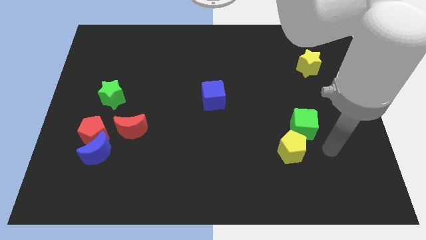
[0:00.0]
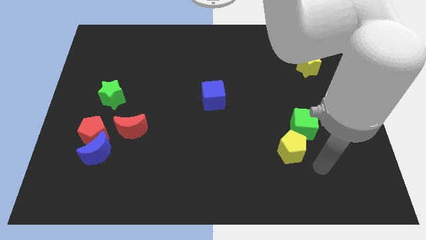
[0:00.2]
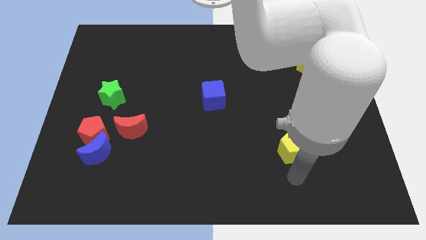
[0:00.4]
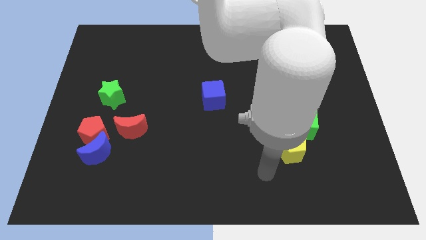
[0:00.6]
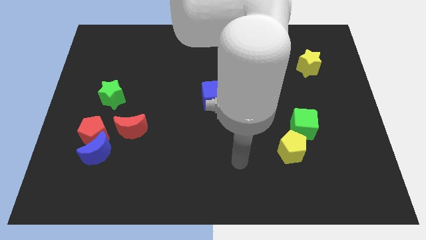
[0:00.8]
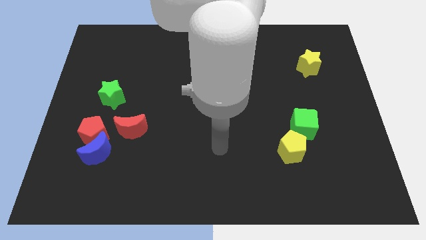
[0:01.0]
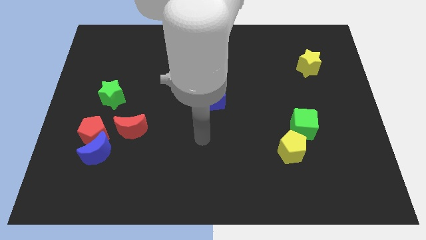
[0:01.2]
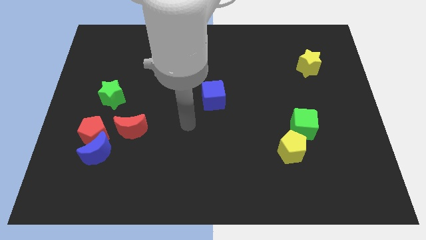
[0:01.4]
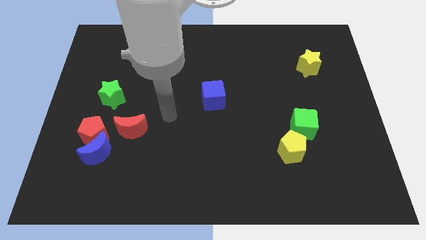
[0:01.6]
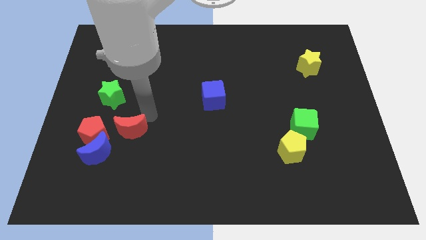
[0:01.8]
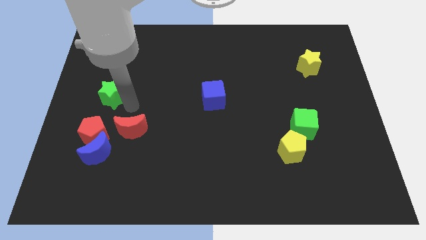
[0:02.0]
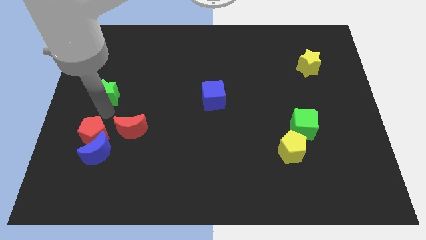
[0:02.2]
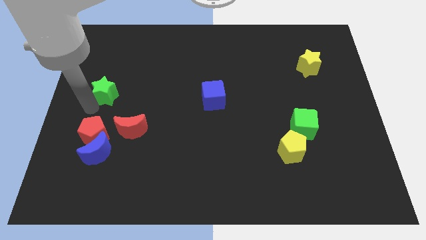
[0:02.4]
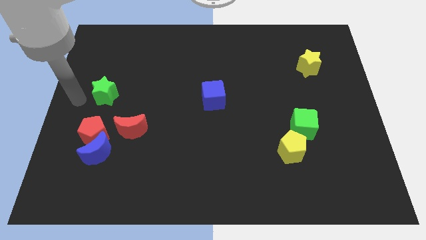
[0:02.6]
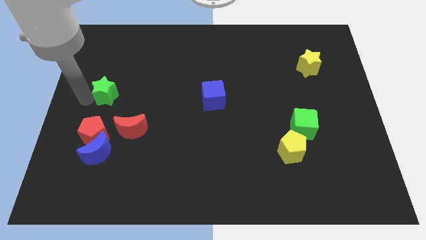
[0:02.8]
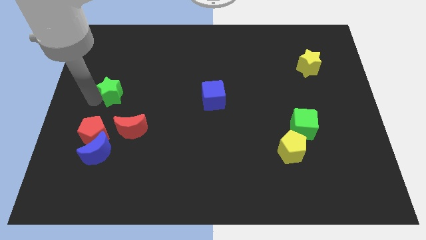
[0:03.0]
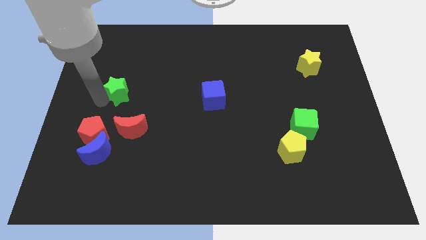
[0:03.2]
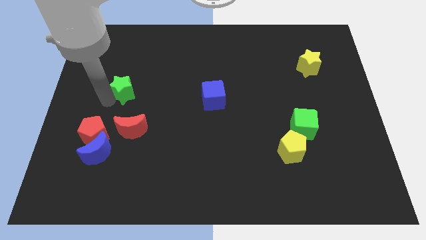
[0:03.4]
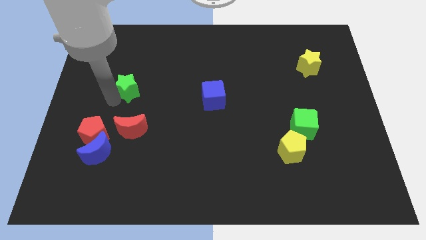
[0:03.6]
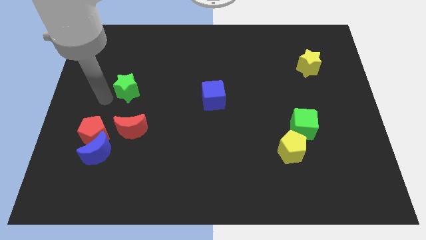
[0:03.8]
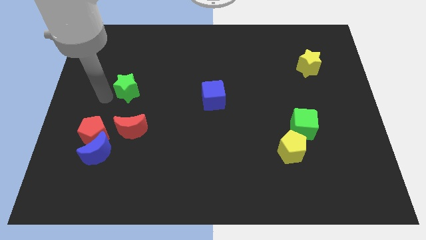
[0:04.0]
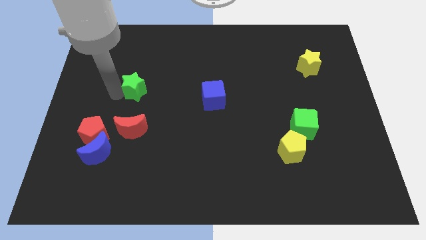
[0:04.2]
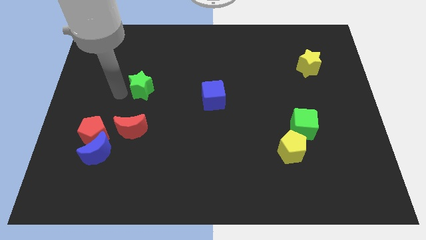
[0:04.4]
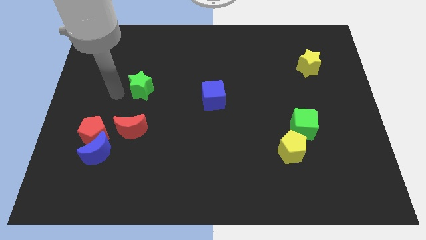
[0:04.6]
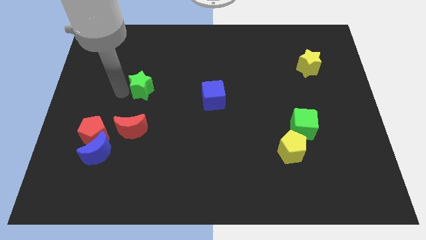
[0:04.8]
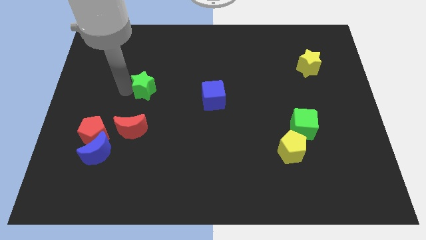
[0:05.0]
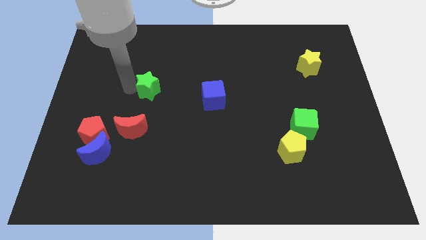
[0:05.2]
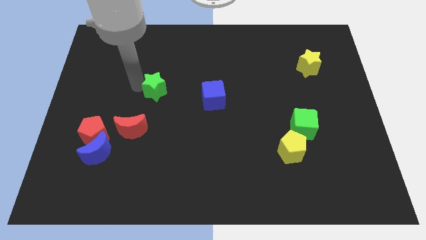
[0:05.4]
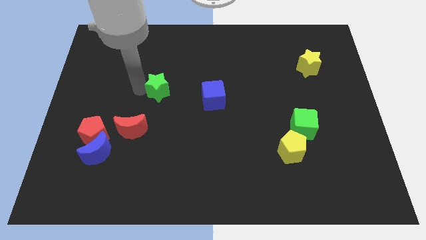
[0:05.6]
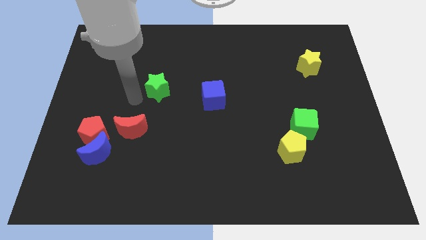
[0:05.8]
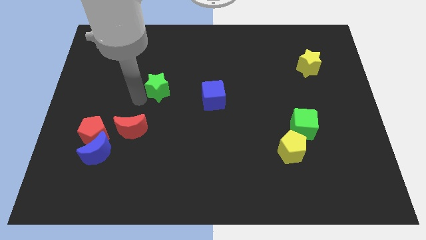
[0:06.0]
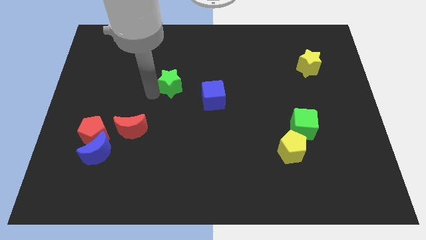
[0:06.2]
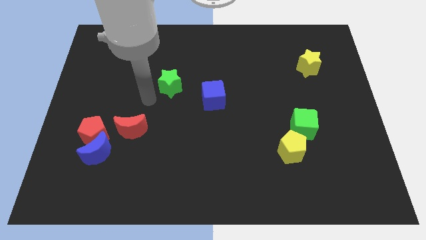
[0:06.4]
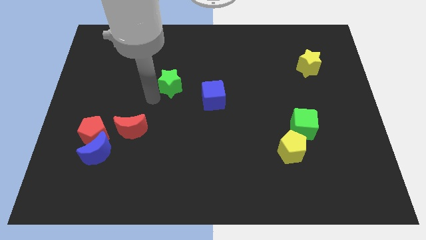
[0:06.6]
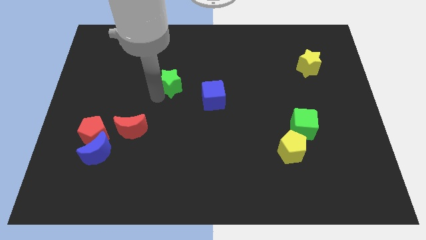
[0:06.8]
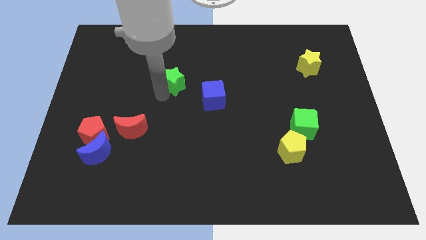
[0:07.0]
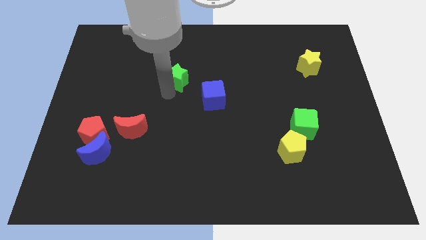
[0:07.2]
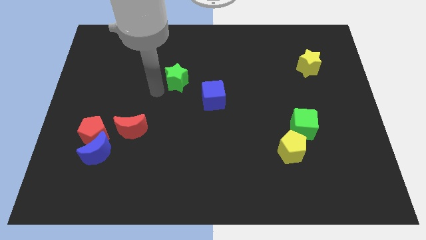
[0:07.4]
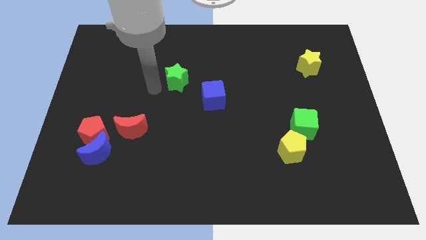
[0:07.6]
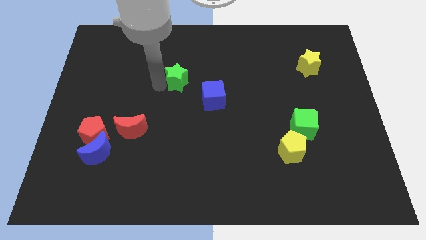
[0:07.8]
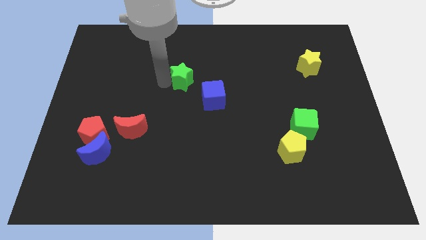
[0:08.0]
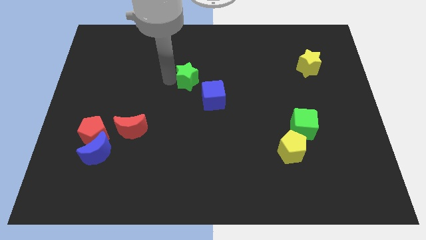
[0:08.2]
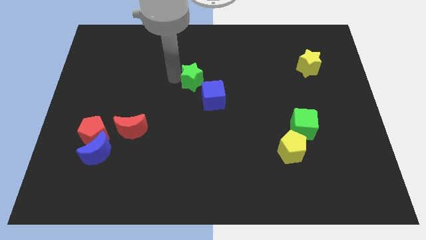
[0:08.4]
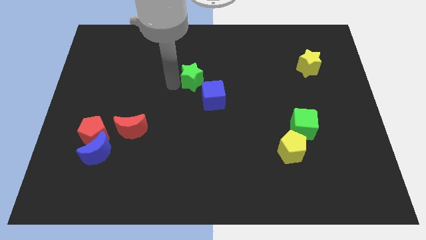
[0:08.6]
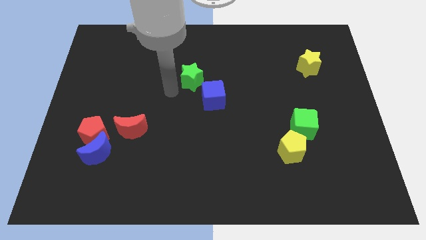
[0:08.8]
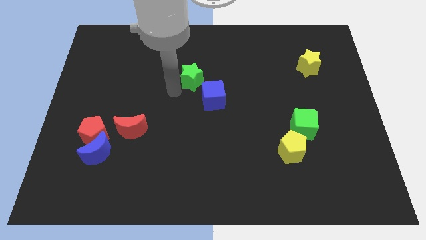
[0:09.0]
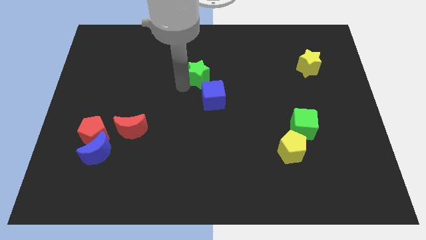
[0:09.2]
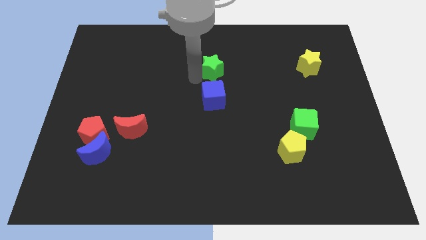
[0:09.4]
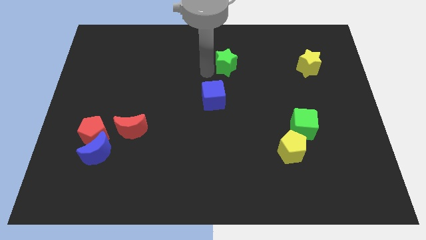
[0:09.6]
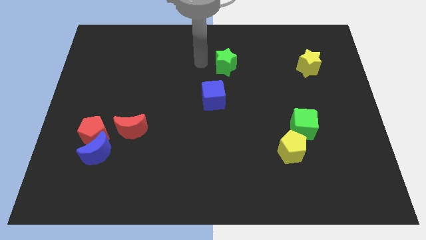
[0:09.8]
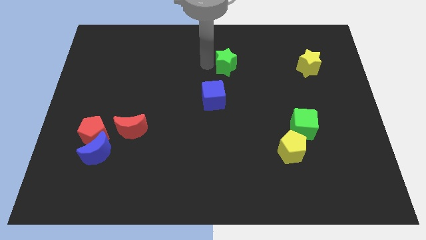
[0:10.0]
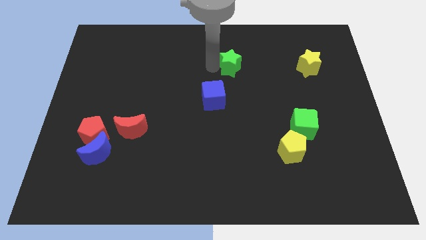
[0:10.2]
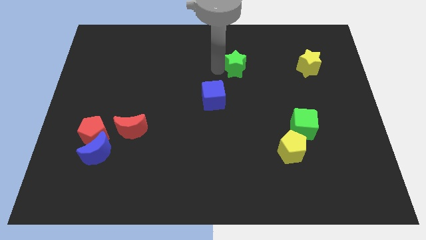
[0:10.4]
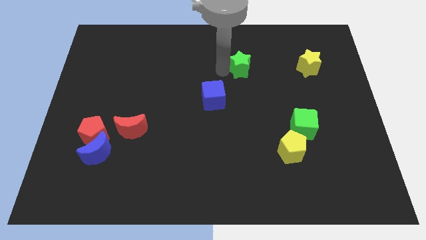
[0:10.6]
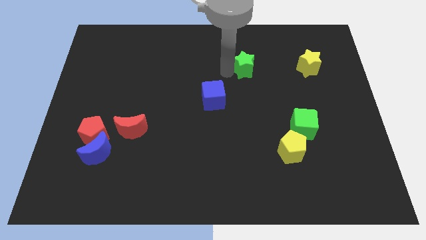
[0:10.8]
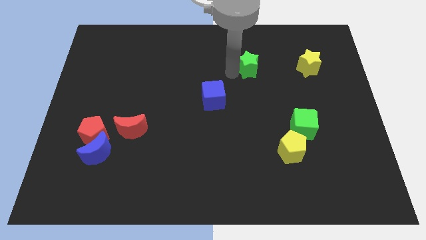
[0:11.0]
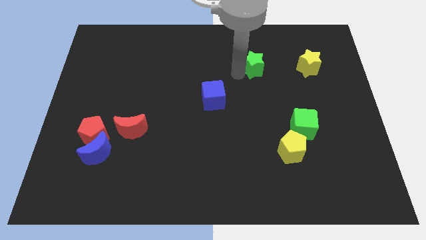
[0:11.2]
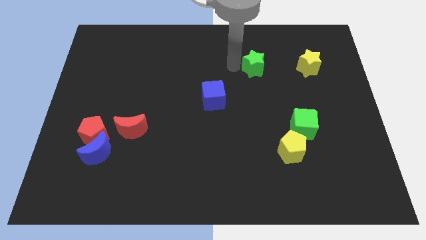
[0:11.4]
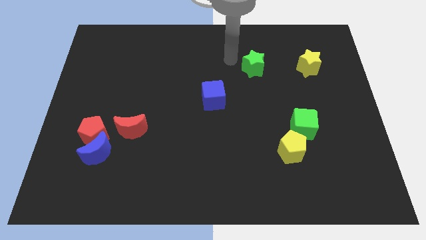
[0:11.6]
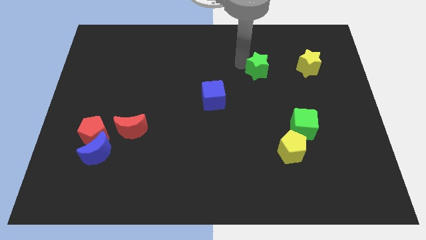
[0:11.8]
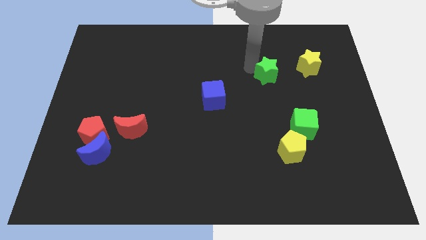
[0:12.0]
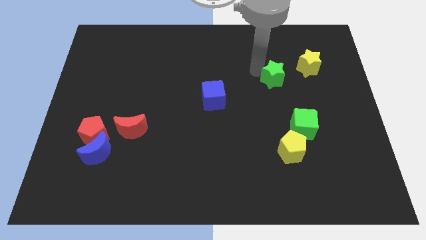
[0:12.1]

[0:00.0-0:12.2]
put the green star to the bottom left side of the yellow star

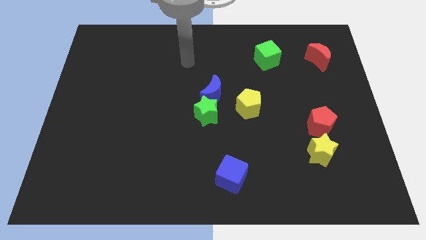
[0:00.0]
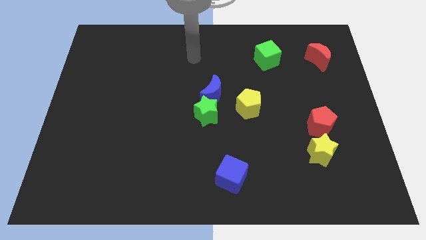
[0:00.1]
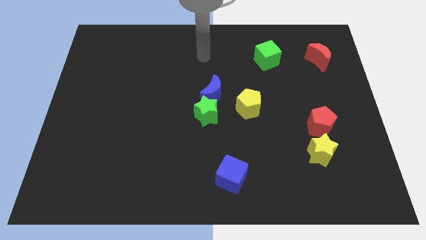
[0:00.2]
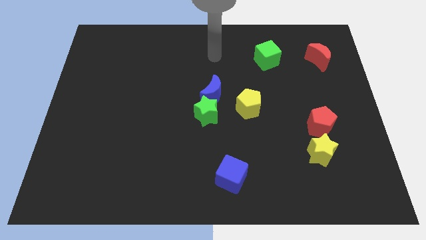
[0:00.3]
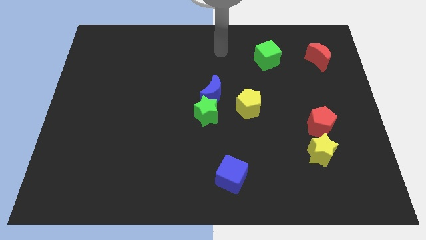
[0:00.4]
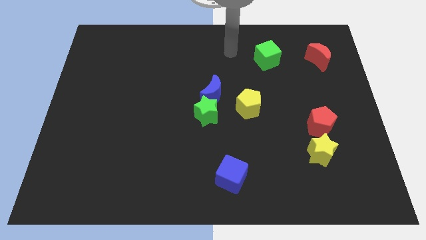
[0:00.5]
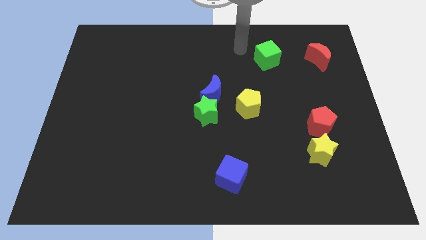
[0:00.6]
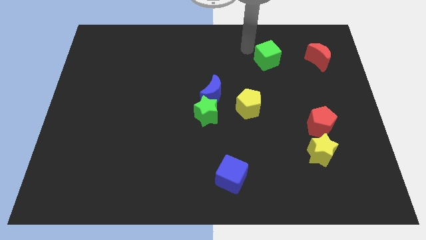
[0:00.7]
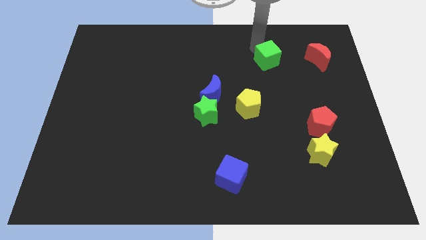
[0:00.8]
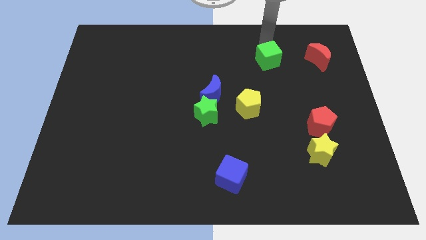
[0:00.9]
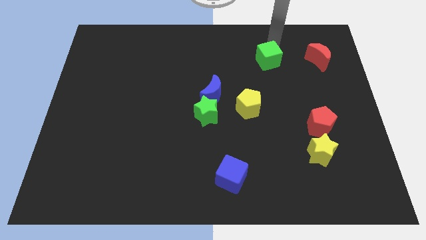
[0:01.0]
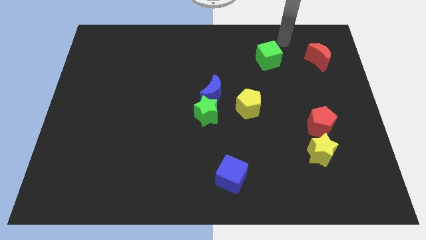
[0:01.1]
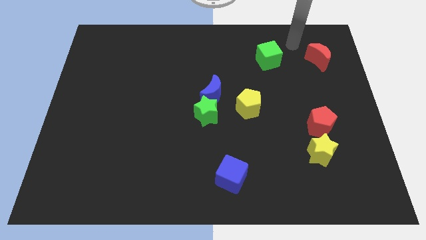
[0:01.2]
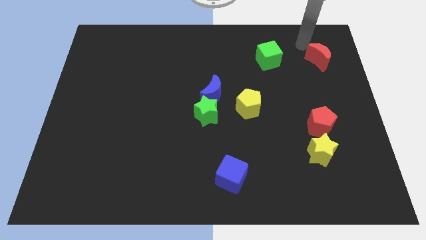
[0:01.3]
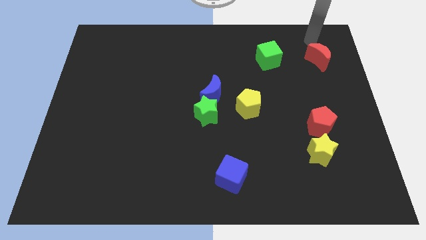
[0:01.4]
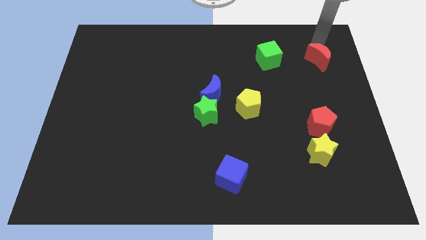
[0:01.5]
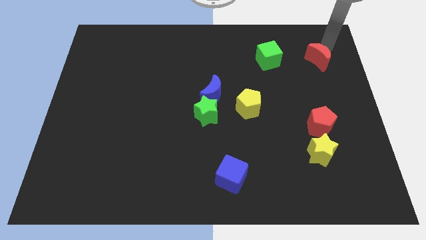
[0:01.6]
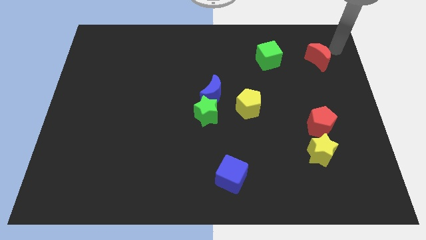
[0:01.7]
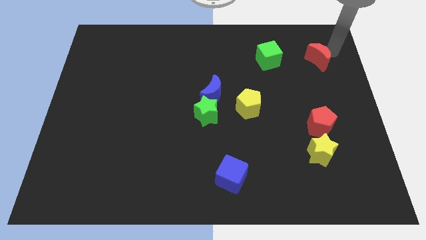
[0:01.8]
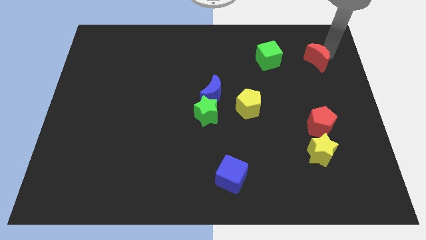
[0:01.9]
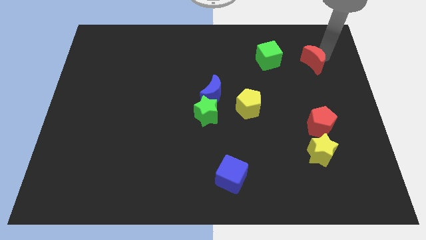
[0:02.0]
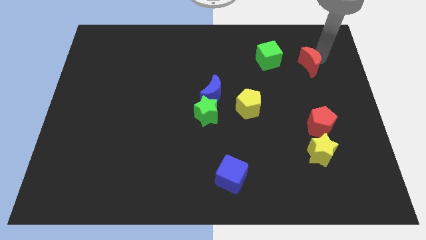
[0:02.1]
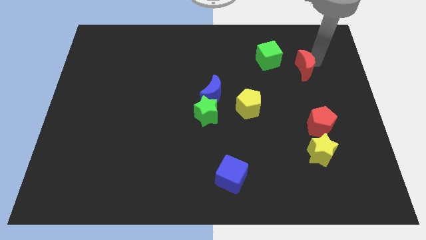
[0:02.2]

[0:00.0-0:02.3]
slide the red moon to the bottom right of the green cube
